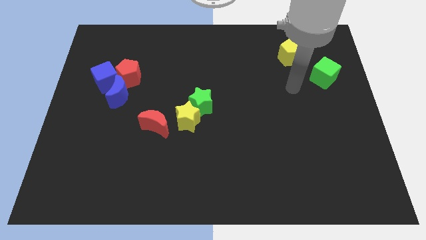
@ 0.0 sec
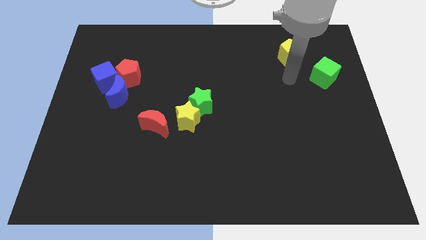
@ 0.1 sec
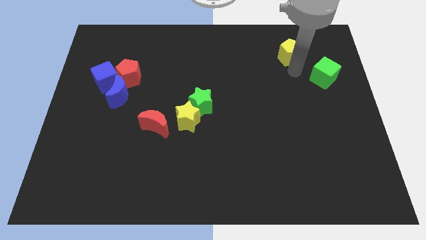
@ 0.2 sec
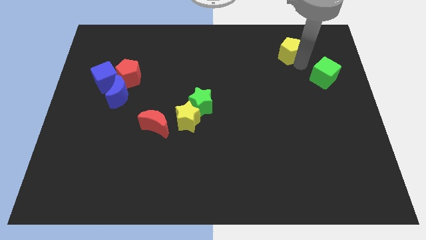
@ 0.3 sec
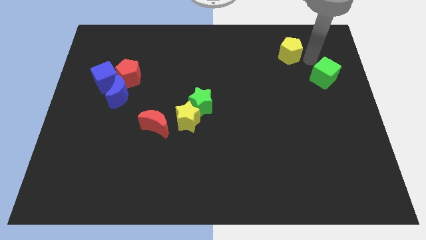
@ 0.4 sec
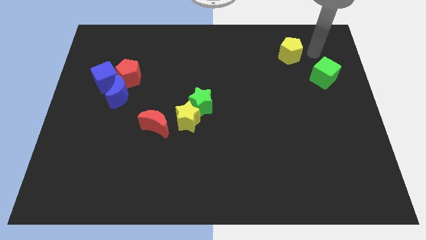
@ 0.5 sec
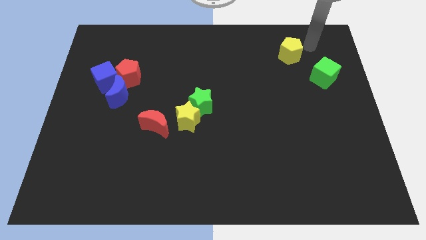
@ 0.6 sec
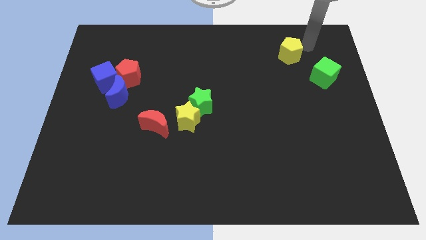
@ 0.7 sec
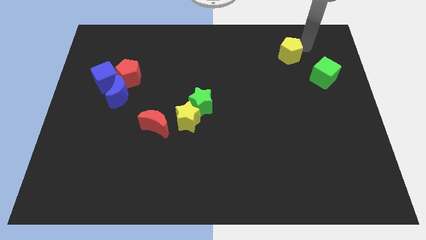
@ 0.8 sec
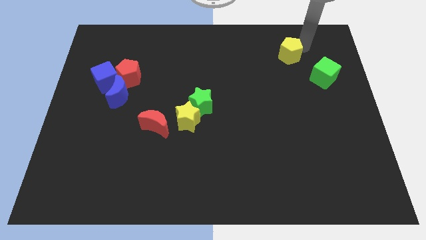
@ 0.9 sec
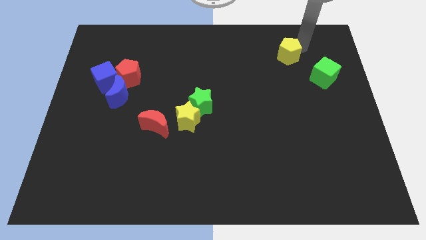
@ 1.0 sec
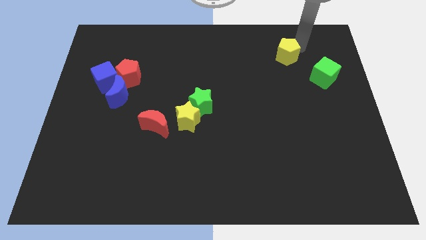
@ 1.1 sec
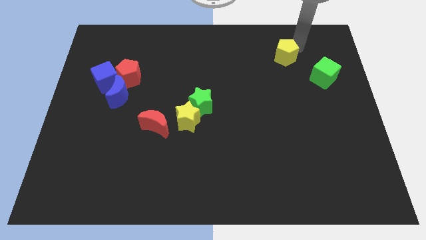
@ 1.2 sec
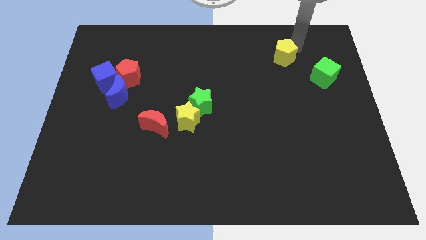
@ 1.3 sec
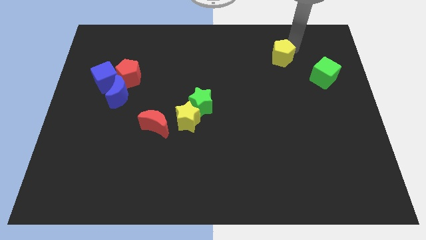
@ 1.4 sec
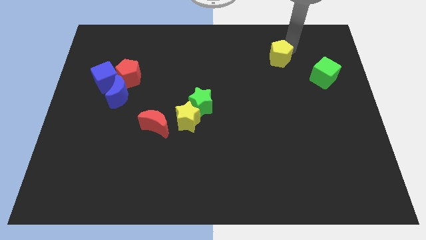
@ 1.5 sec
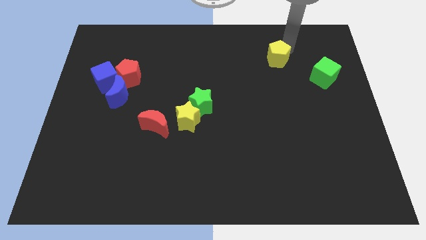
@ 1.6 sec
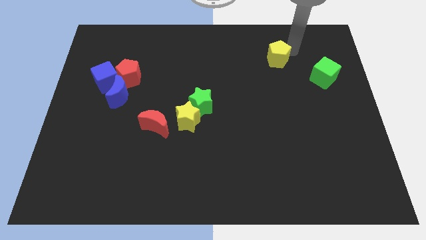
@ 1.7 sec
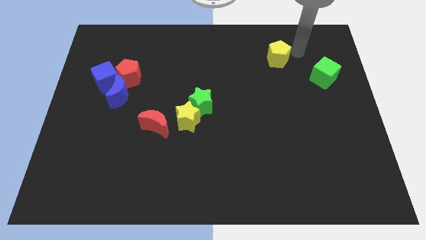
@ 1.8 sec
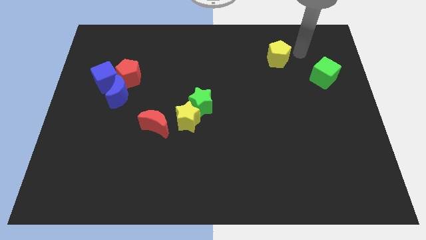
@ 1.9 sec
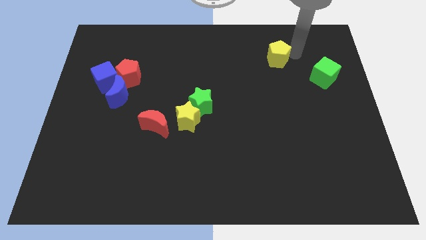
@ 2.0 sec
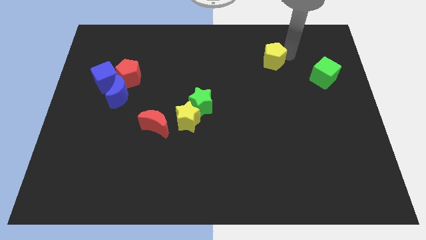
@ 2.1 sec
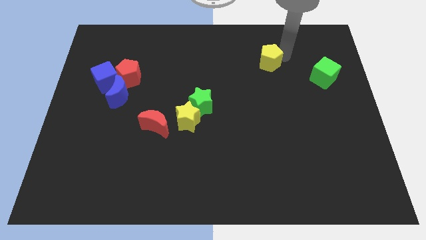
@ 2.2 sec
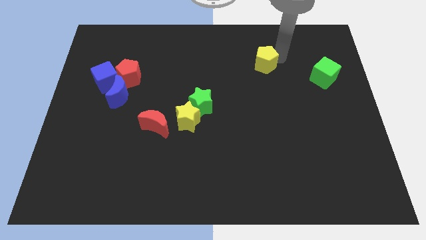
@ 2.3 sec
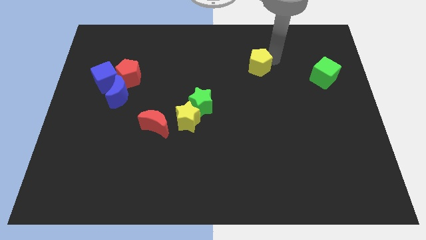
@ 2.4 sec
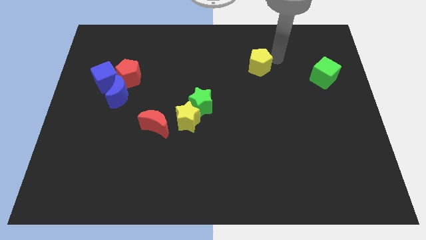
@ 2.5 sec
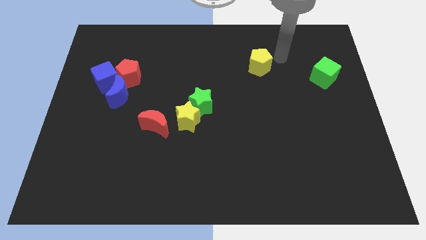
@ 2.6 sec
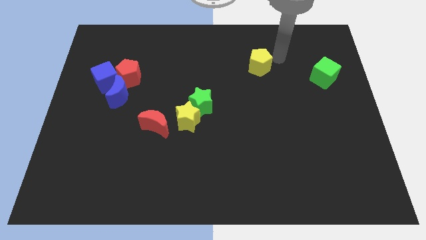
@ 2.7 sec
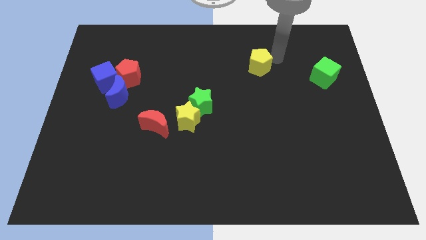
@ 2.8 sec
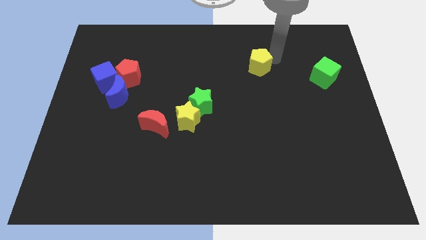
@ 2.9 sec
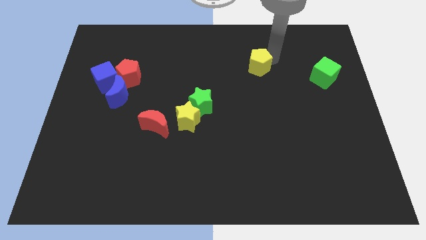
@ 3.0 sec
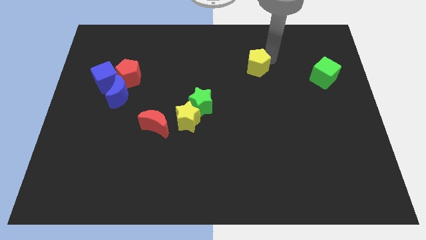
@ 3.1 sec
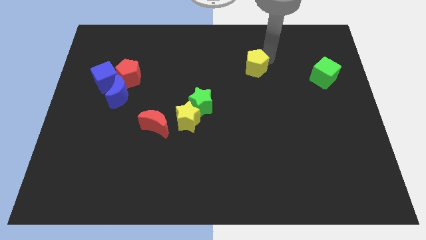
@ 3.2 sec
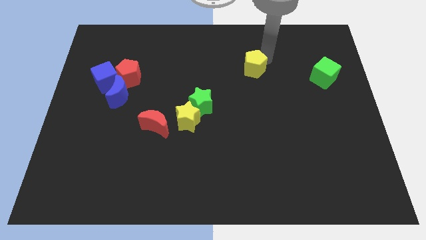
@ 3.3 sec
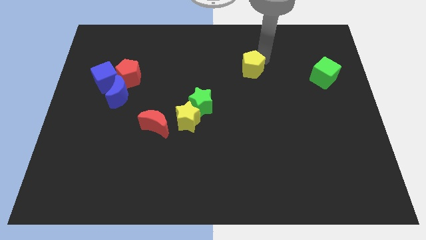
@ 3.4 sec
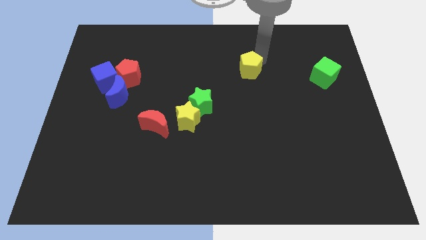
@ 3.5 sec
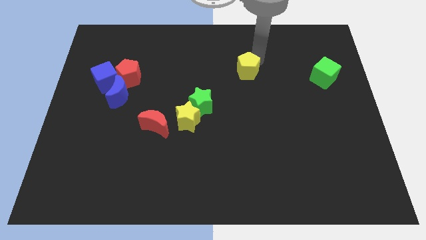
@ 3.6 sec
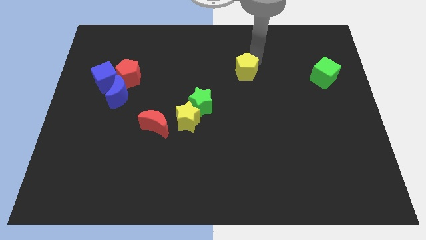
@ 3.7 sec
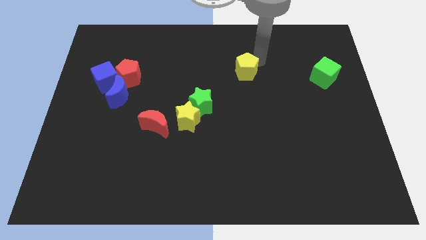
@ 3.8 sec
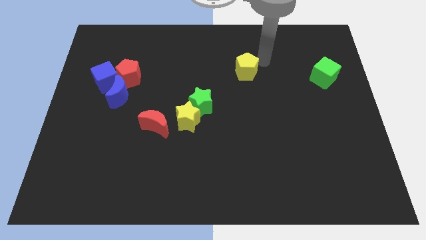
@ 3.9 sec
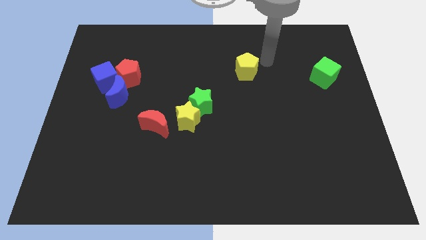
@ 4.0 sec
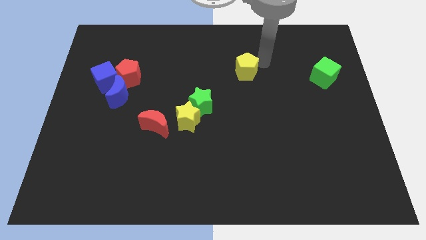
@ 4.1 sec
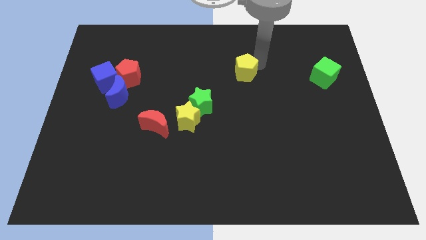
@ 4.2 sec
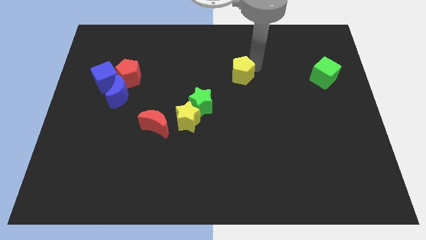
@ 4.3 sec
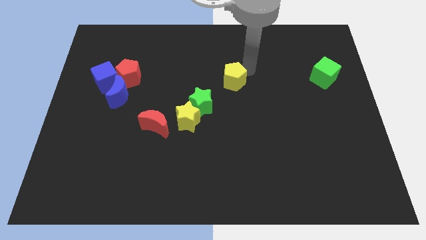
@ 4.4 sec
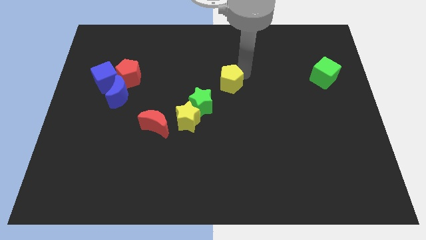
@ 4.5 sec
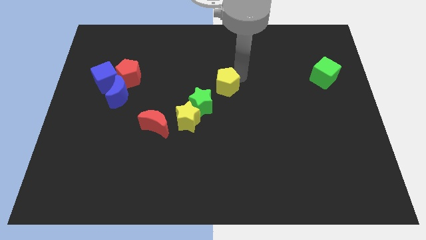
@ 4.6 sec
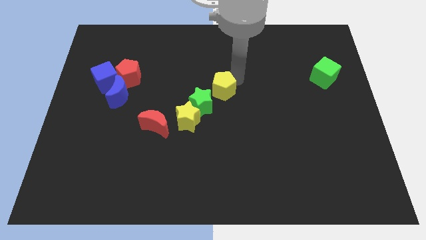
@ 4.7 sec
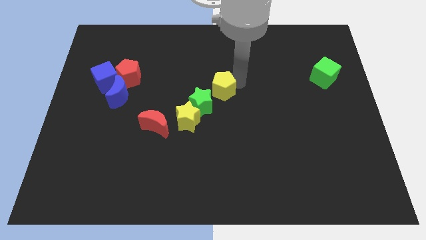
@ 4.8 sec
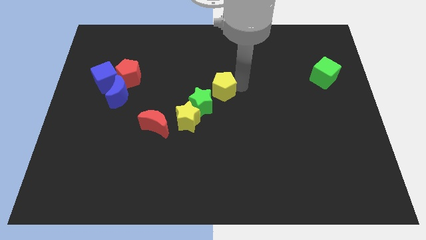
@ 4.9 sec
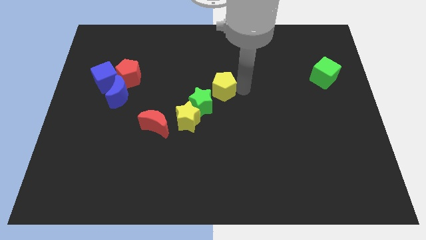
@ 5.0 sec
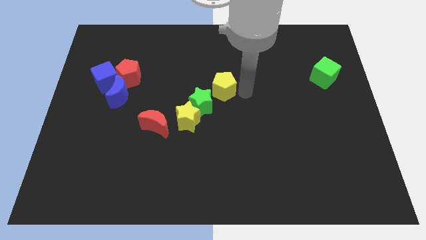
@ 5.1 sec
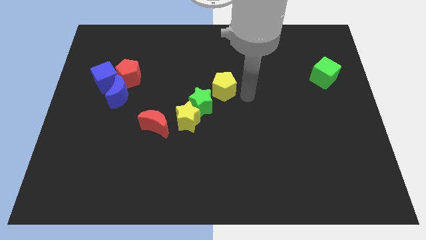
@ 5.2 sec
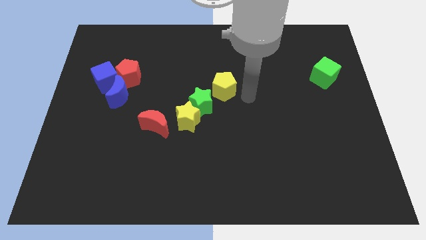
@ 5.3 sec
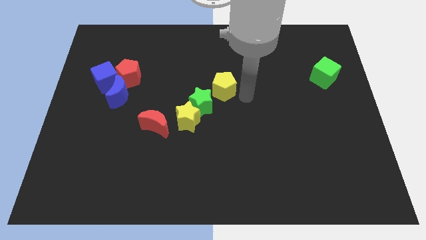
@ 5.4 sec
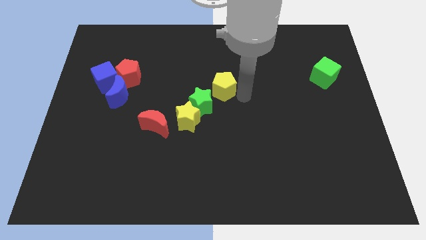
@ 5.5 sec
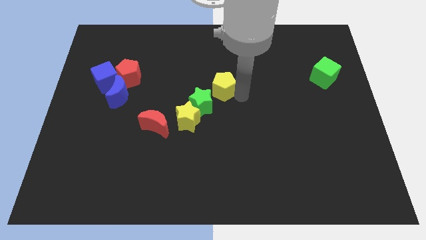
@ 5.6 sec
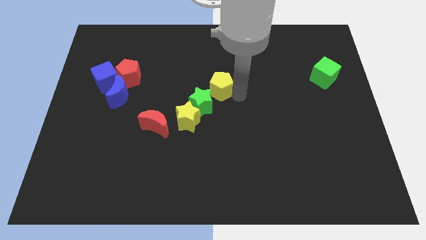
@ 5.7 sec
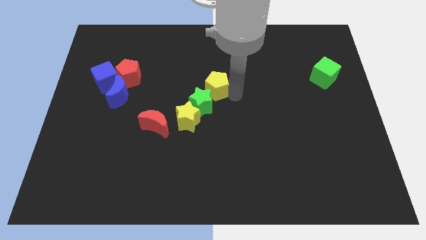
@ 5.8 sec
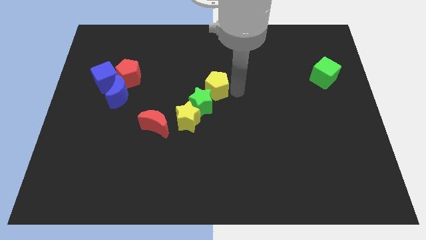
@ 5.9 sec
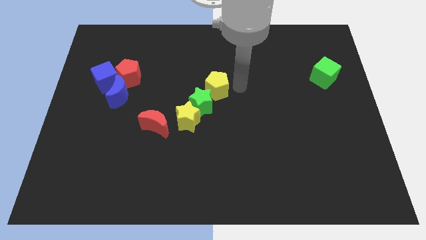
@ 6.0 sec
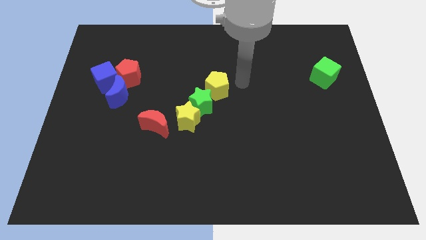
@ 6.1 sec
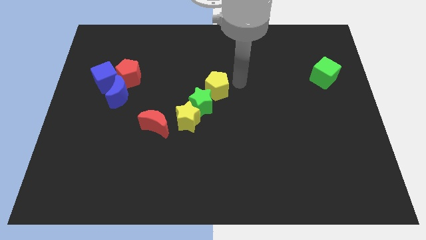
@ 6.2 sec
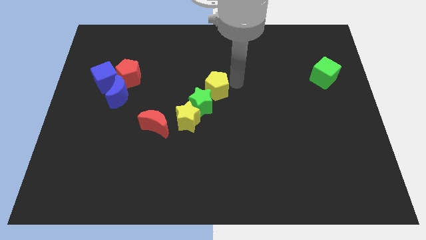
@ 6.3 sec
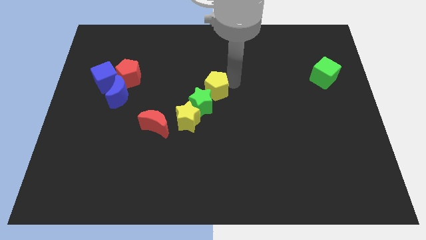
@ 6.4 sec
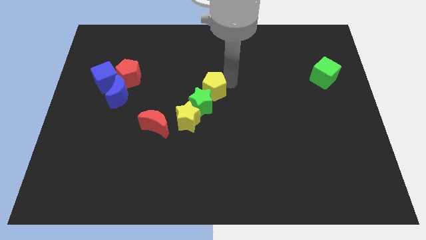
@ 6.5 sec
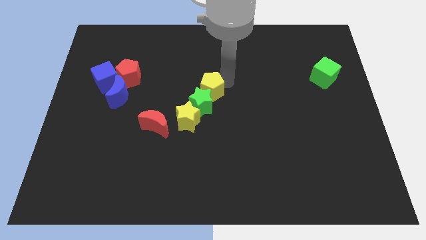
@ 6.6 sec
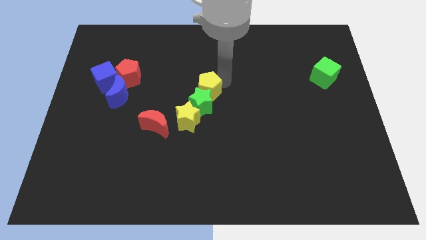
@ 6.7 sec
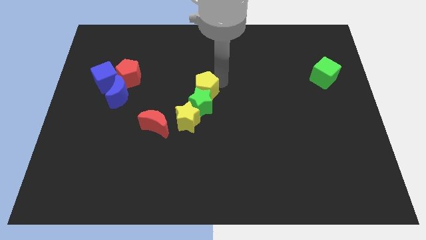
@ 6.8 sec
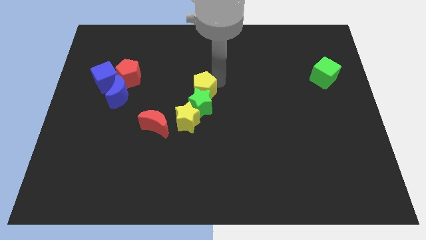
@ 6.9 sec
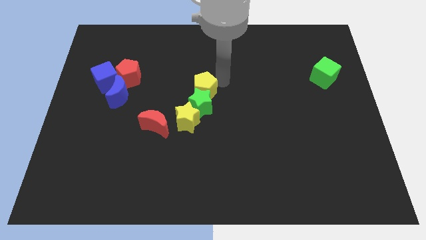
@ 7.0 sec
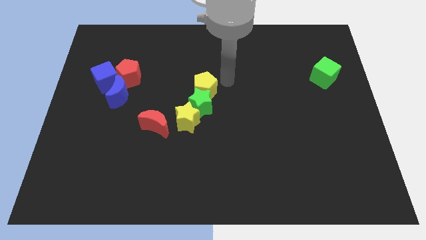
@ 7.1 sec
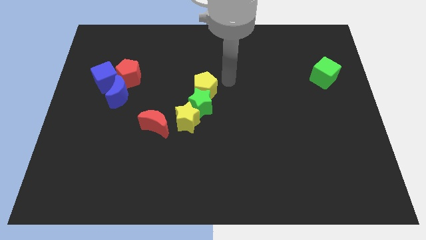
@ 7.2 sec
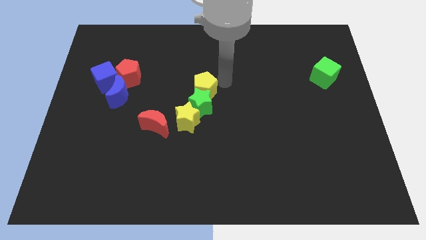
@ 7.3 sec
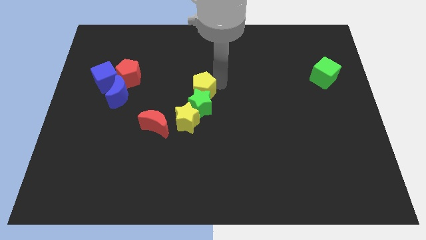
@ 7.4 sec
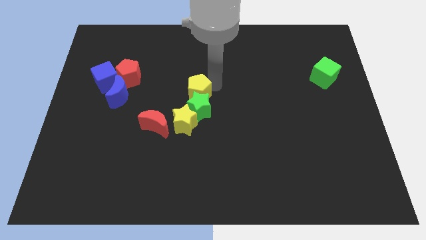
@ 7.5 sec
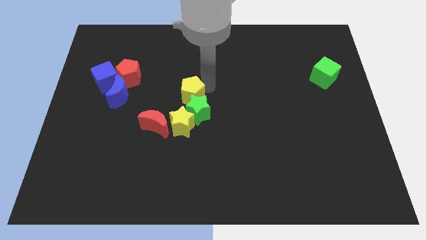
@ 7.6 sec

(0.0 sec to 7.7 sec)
move the yellow pentagon to the top right side of the red moon
